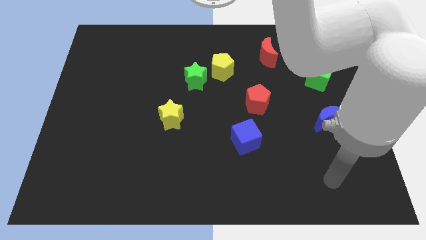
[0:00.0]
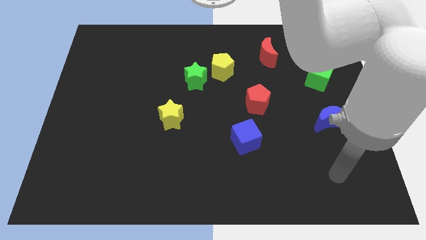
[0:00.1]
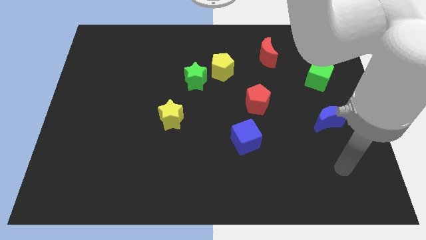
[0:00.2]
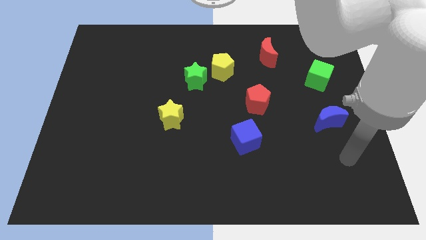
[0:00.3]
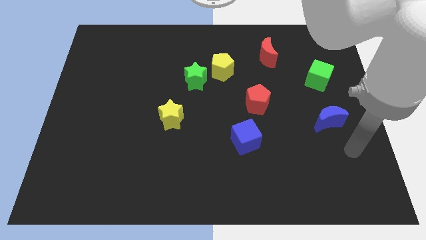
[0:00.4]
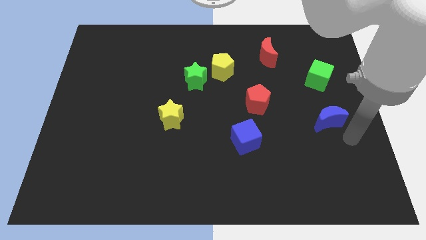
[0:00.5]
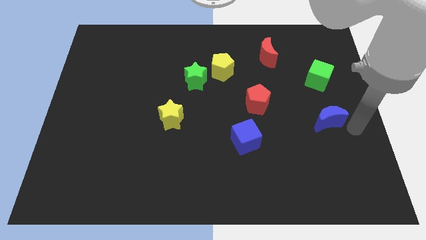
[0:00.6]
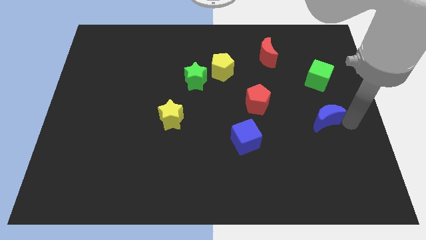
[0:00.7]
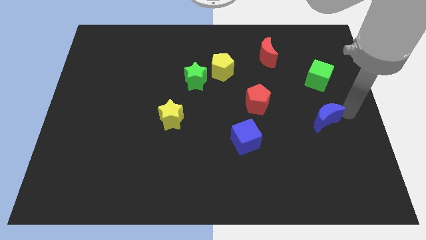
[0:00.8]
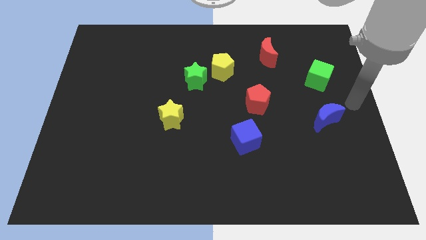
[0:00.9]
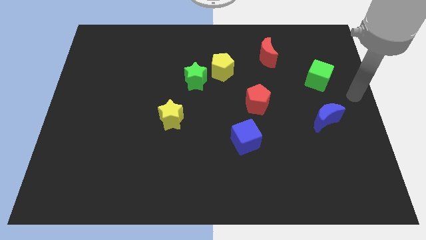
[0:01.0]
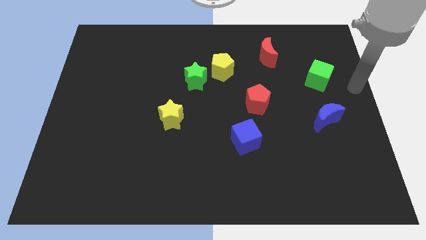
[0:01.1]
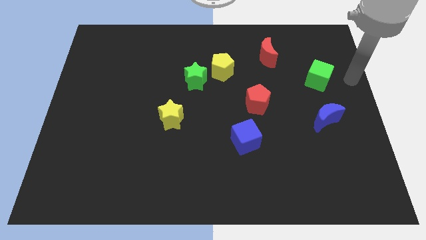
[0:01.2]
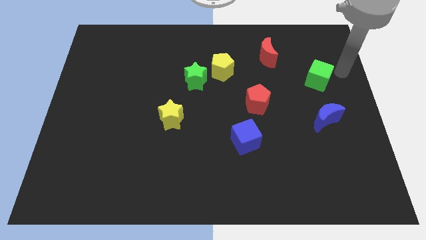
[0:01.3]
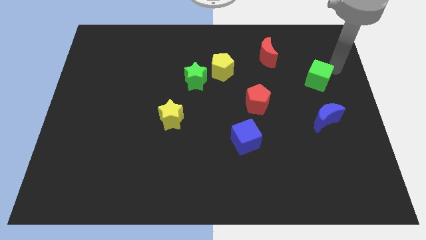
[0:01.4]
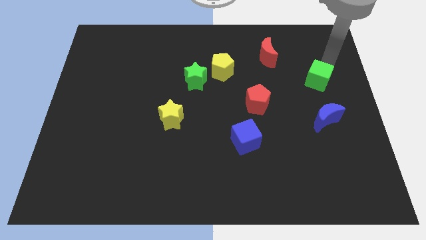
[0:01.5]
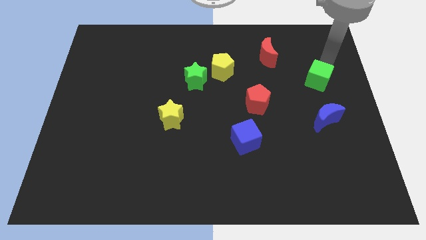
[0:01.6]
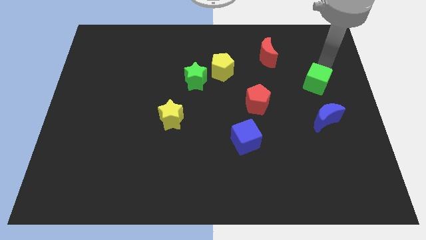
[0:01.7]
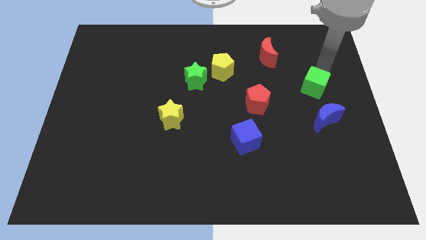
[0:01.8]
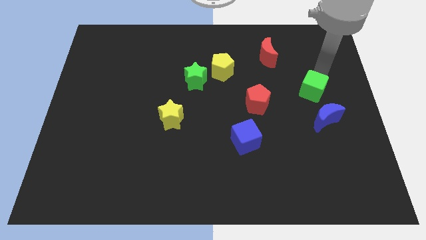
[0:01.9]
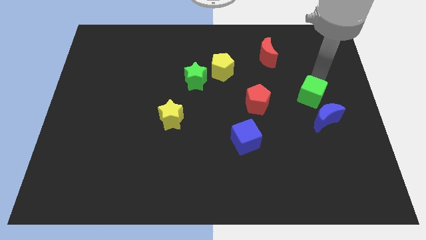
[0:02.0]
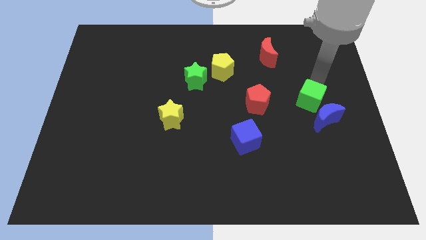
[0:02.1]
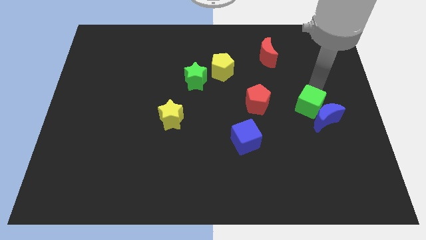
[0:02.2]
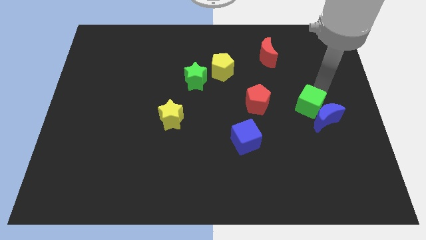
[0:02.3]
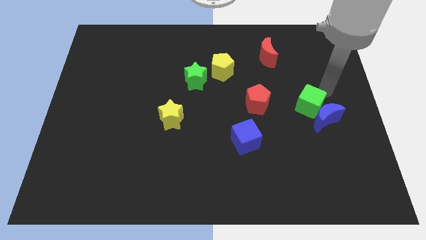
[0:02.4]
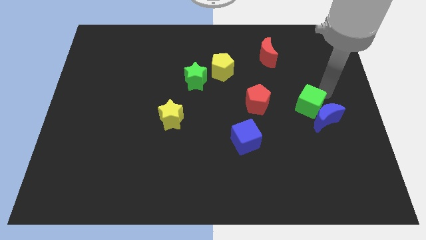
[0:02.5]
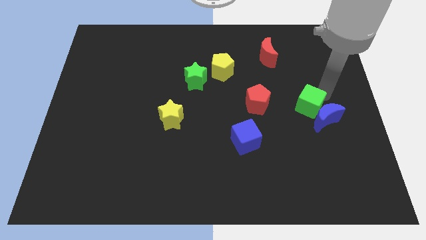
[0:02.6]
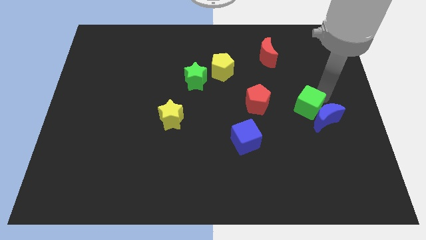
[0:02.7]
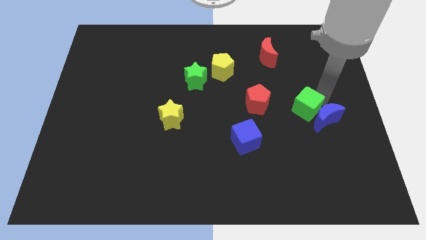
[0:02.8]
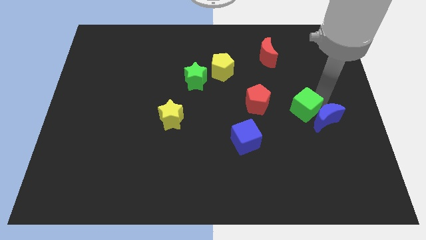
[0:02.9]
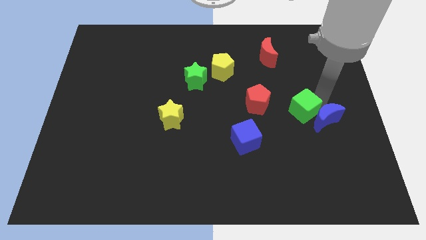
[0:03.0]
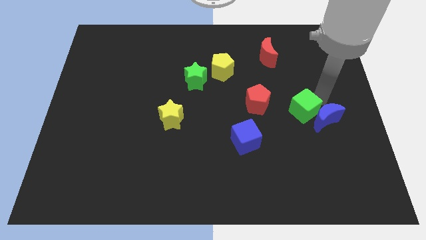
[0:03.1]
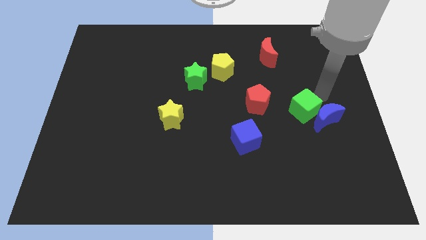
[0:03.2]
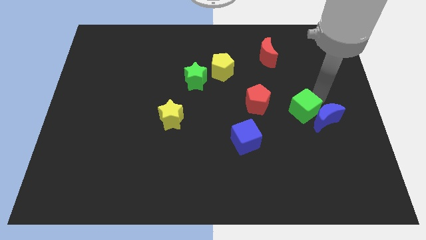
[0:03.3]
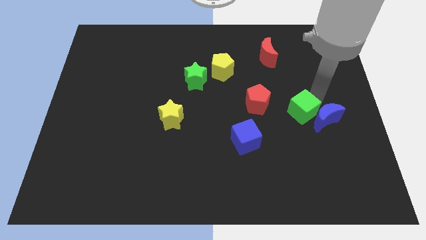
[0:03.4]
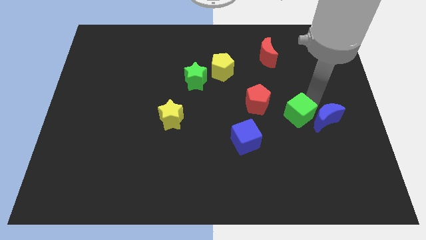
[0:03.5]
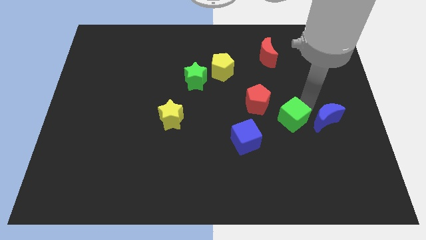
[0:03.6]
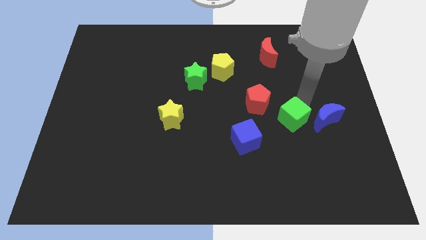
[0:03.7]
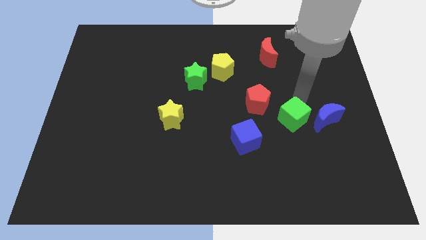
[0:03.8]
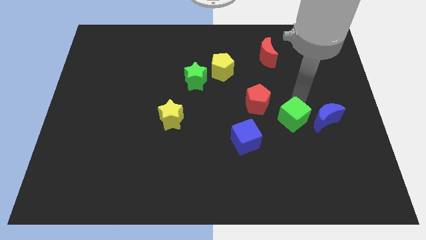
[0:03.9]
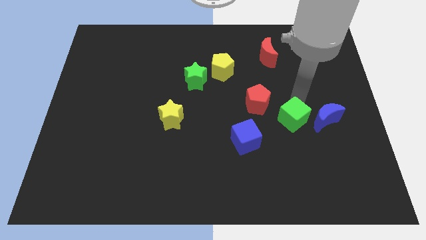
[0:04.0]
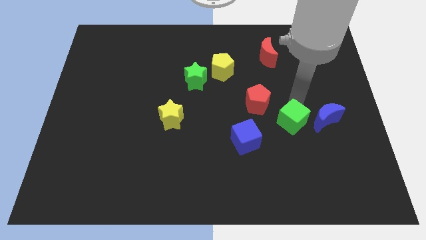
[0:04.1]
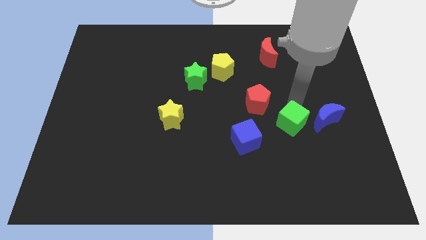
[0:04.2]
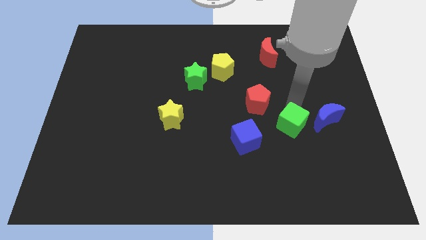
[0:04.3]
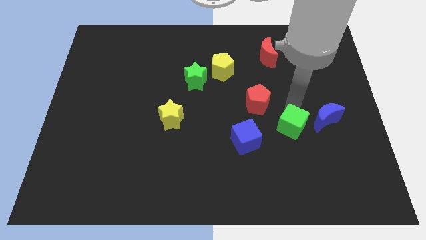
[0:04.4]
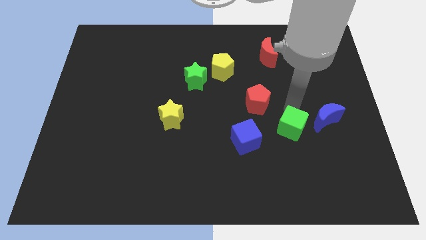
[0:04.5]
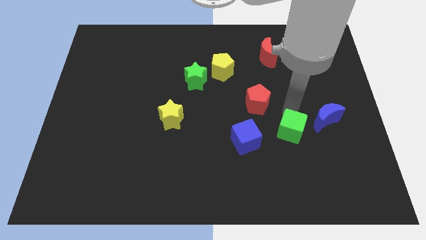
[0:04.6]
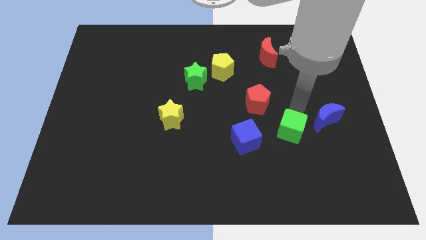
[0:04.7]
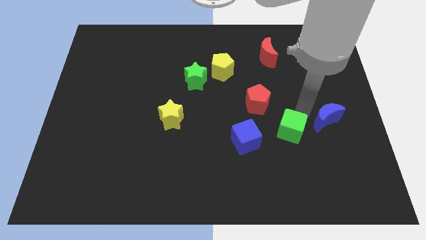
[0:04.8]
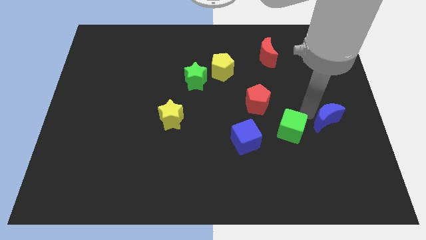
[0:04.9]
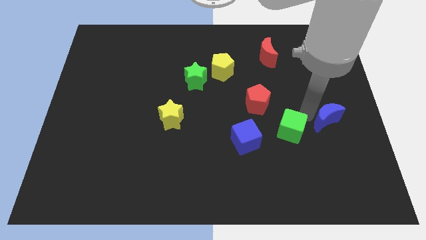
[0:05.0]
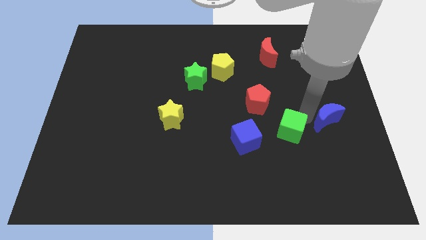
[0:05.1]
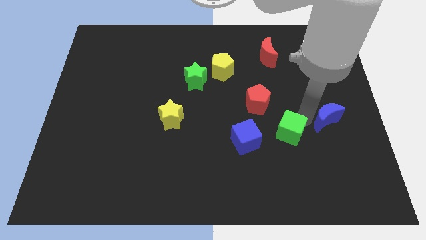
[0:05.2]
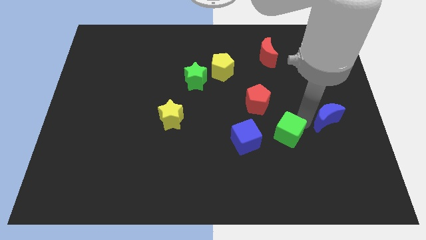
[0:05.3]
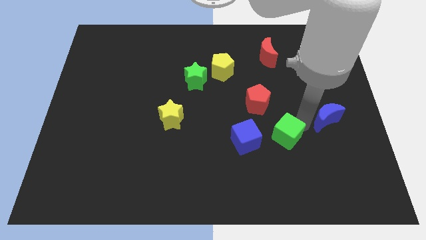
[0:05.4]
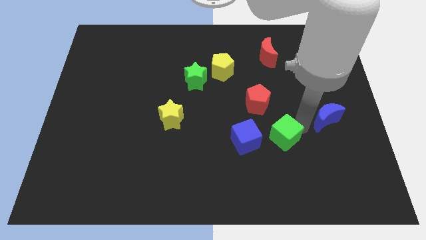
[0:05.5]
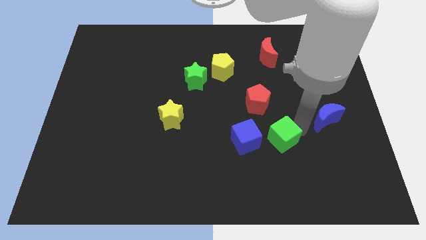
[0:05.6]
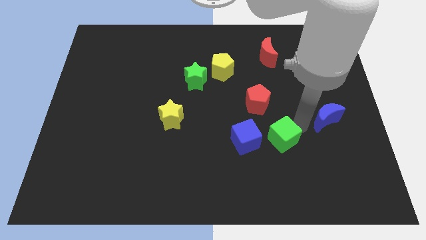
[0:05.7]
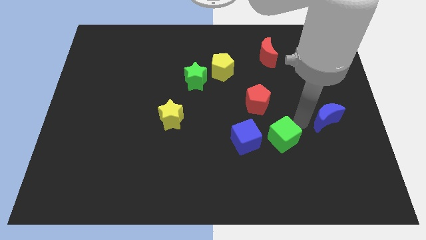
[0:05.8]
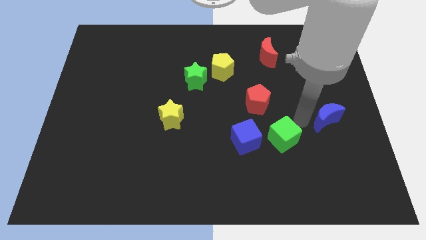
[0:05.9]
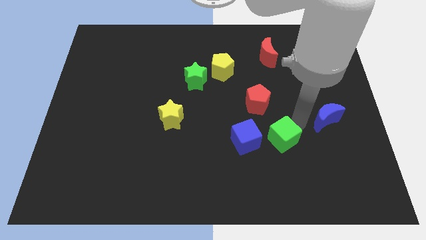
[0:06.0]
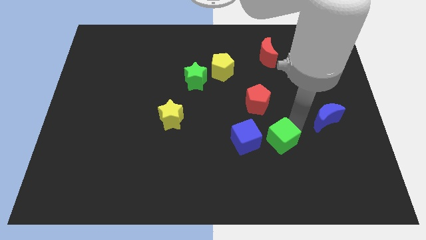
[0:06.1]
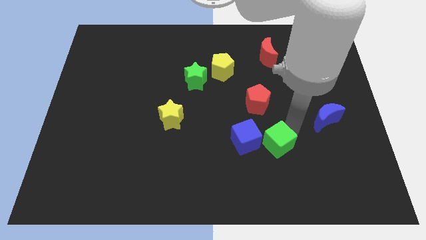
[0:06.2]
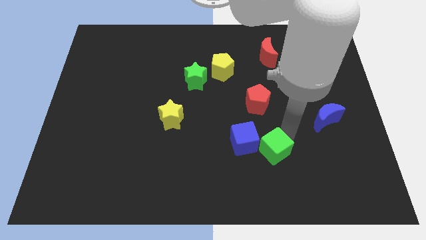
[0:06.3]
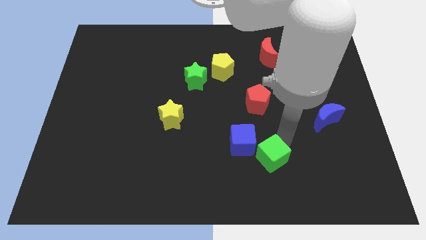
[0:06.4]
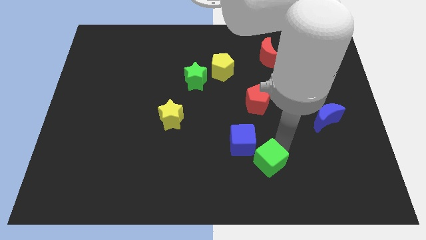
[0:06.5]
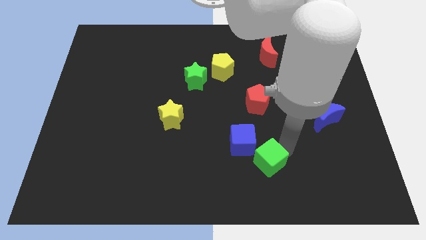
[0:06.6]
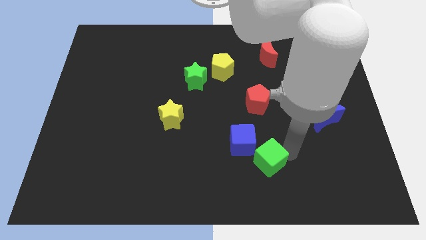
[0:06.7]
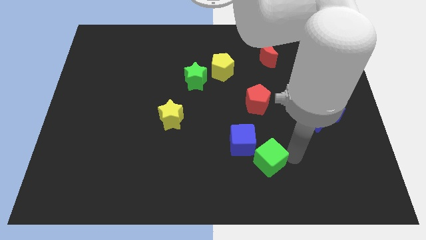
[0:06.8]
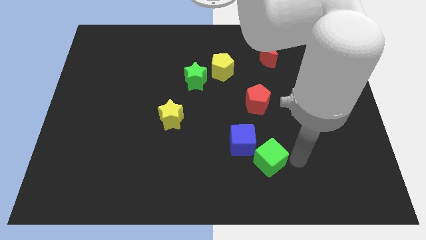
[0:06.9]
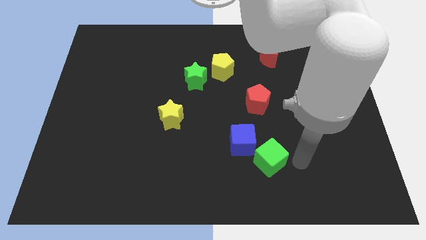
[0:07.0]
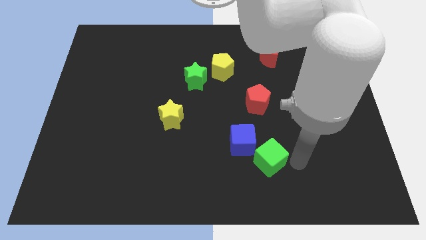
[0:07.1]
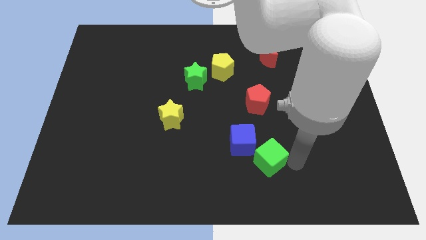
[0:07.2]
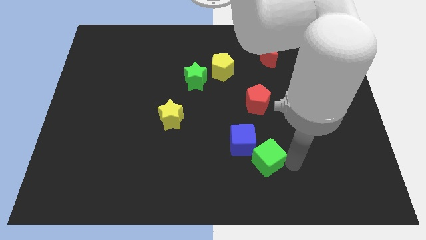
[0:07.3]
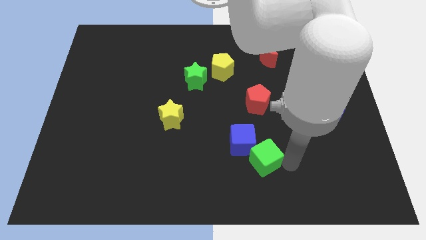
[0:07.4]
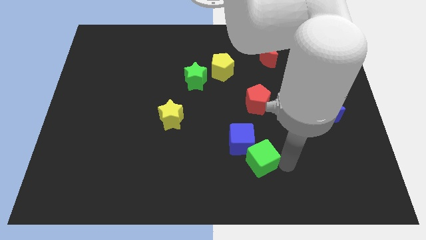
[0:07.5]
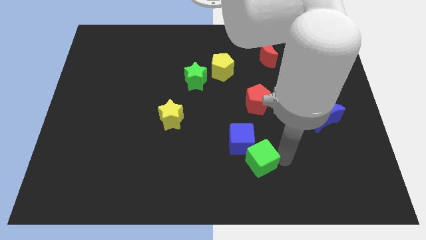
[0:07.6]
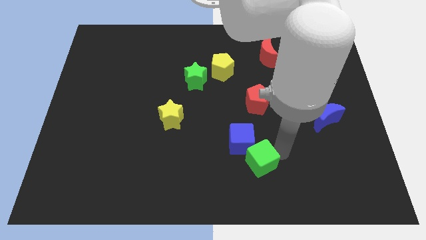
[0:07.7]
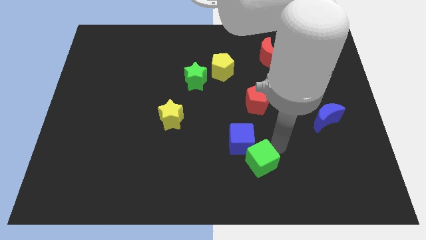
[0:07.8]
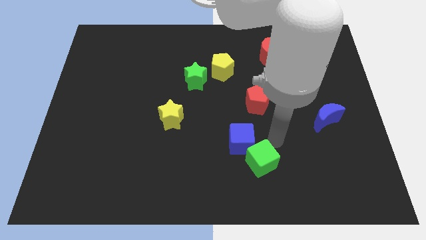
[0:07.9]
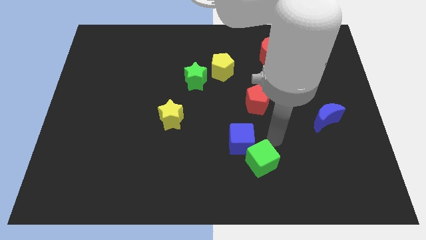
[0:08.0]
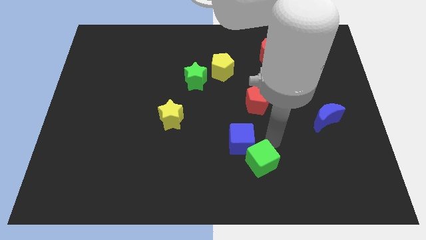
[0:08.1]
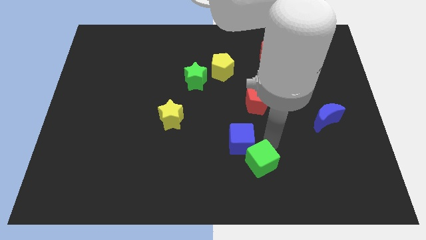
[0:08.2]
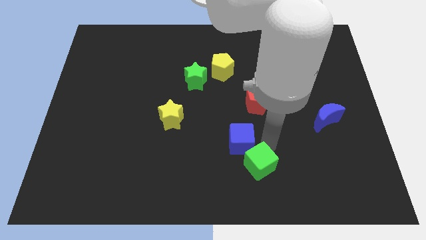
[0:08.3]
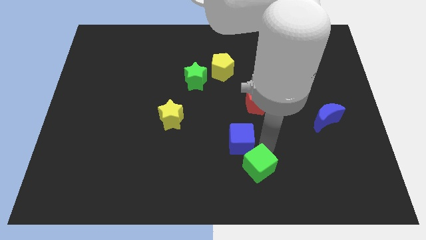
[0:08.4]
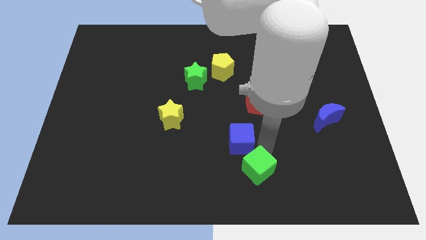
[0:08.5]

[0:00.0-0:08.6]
put the green cube to the bottom
